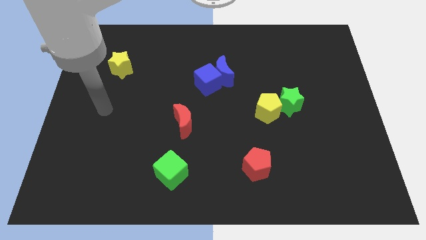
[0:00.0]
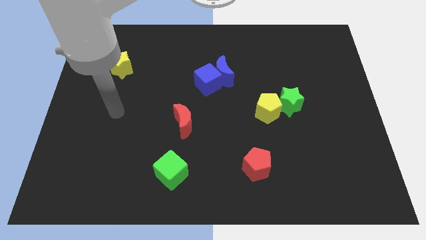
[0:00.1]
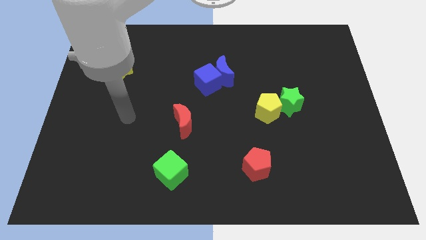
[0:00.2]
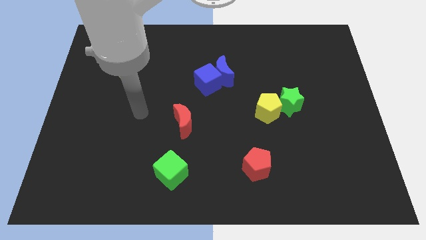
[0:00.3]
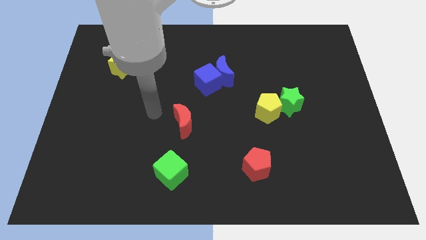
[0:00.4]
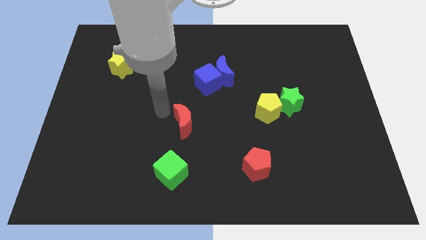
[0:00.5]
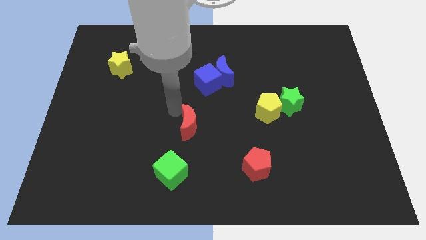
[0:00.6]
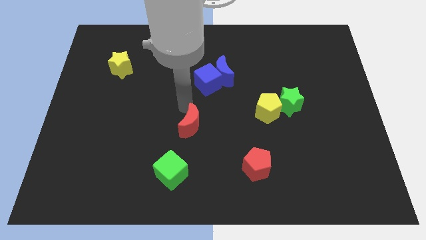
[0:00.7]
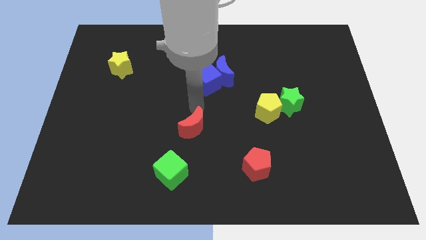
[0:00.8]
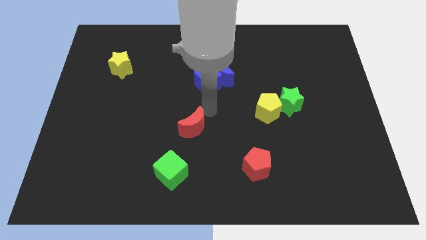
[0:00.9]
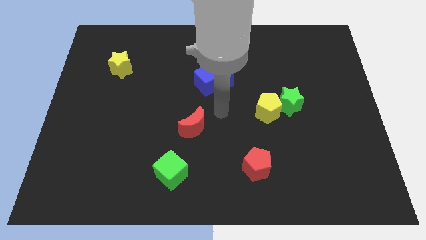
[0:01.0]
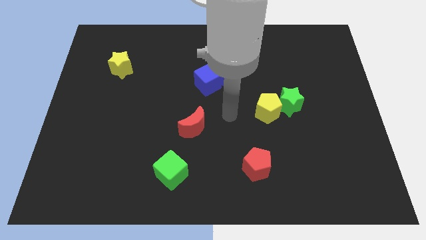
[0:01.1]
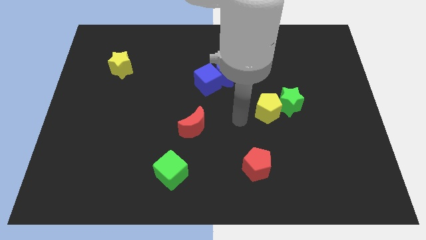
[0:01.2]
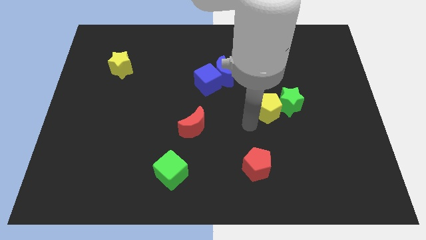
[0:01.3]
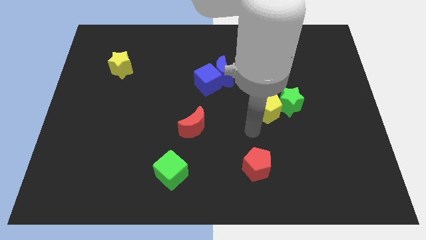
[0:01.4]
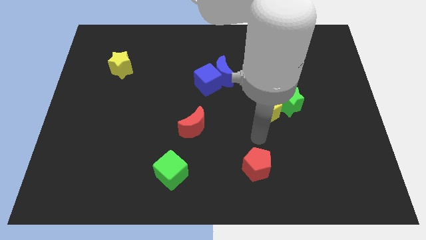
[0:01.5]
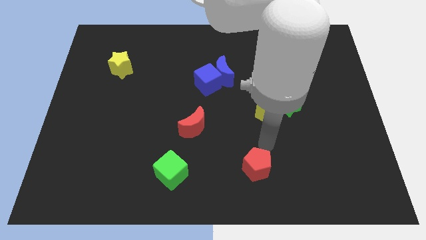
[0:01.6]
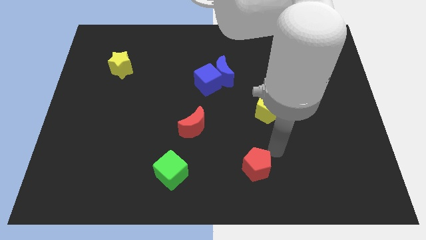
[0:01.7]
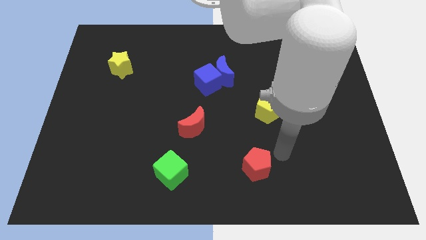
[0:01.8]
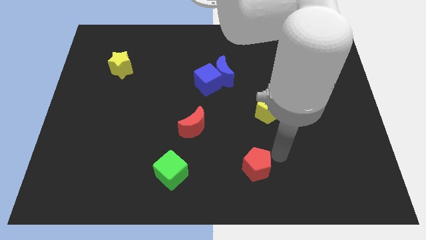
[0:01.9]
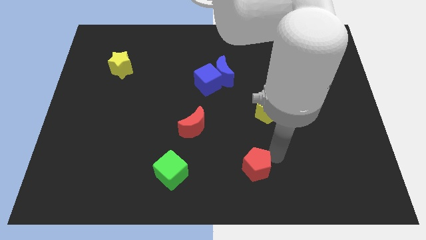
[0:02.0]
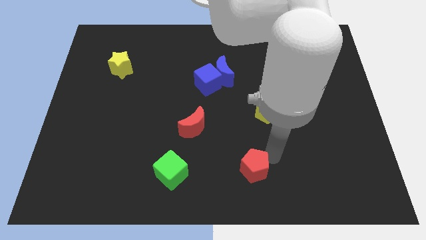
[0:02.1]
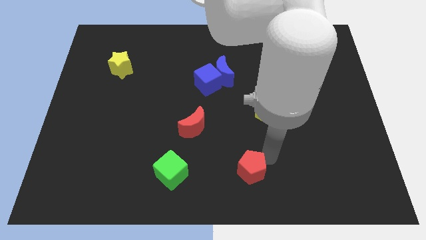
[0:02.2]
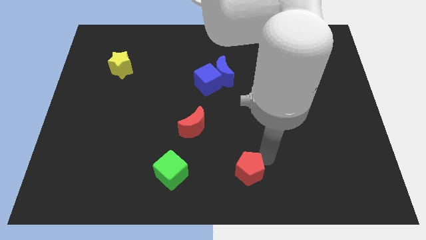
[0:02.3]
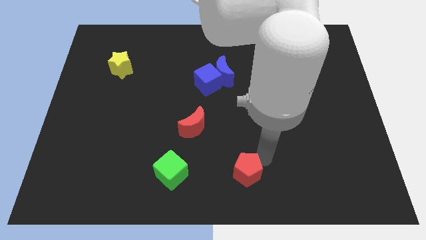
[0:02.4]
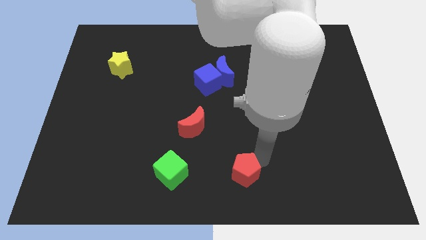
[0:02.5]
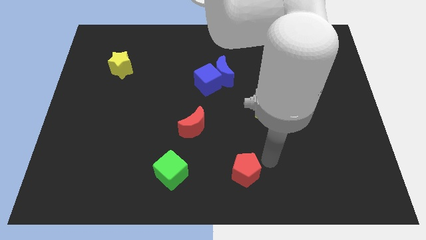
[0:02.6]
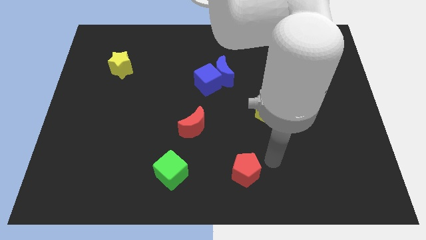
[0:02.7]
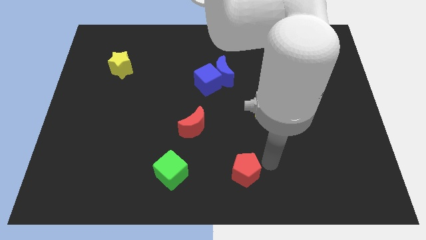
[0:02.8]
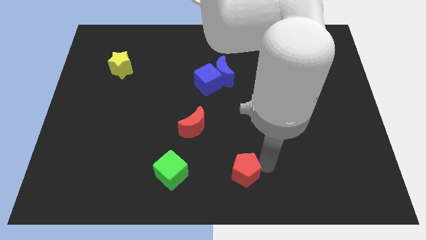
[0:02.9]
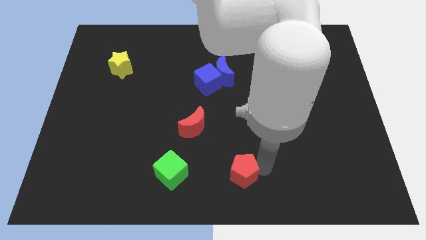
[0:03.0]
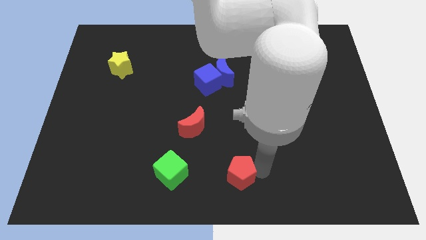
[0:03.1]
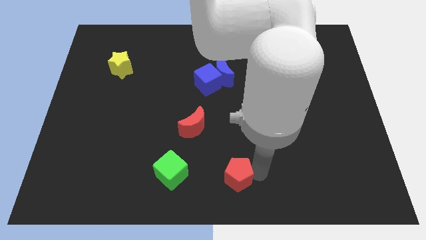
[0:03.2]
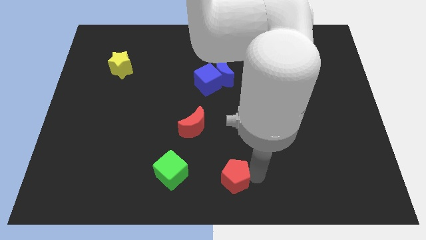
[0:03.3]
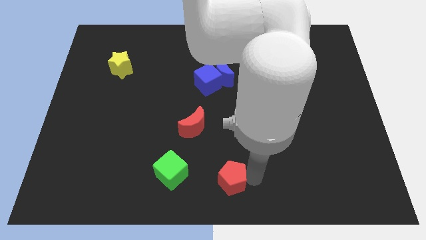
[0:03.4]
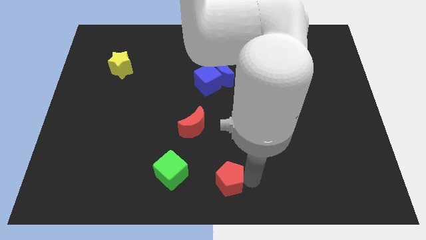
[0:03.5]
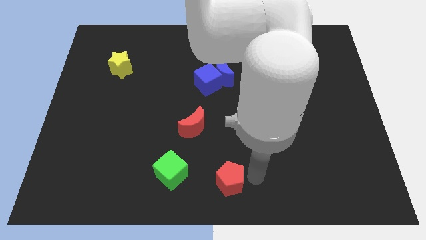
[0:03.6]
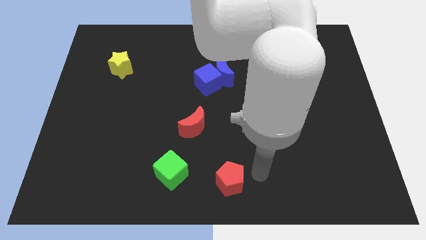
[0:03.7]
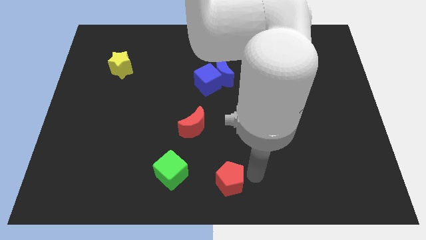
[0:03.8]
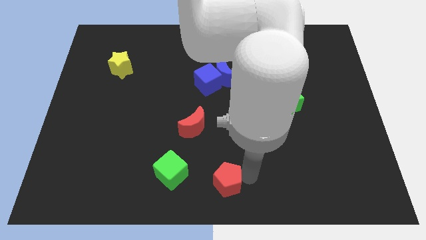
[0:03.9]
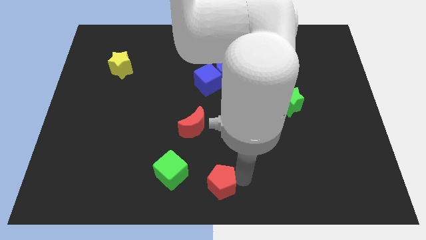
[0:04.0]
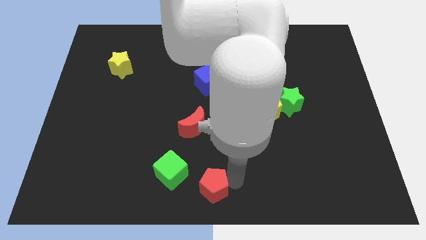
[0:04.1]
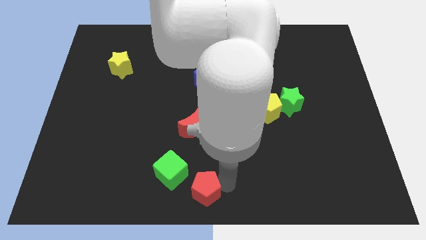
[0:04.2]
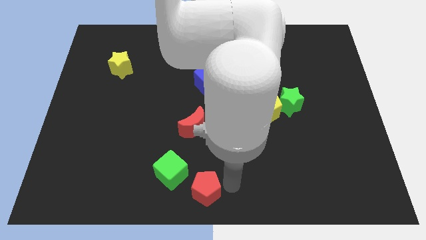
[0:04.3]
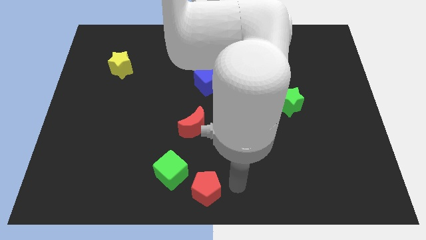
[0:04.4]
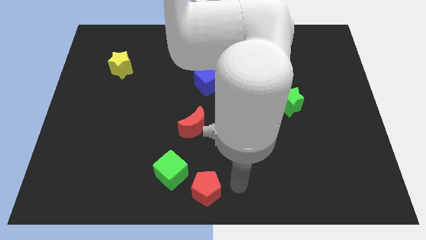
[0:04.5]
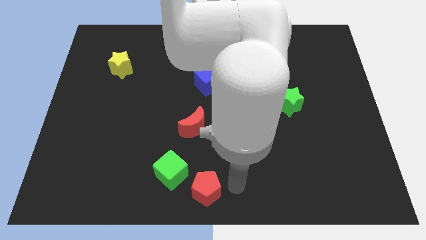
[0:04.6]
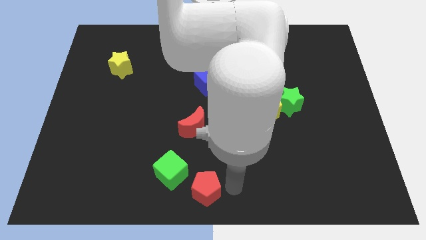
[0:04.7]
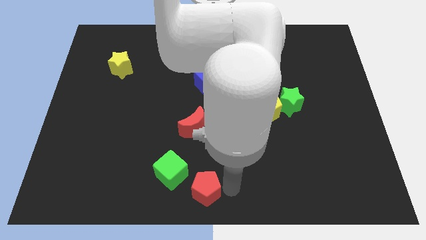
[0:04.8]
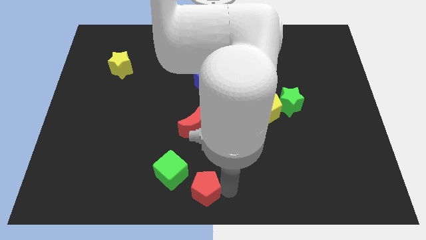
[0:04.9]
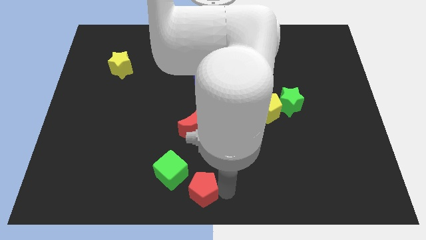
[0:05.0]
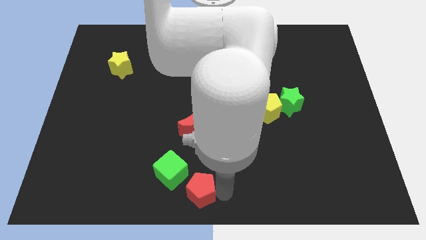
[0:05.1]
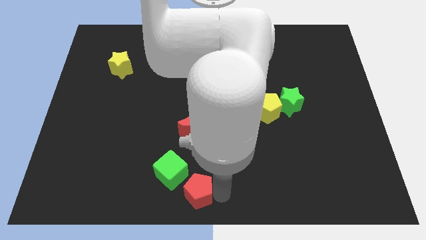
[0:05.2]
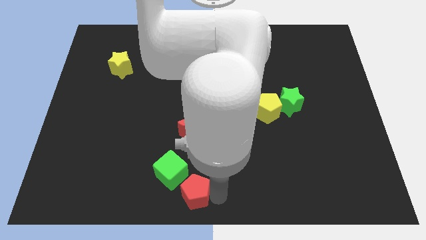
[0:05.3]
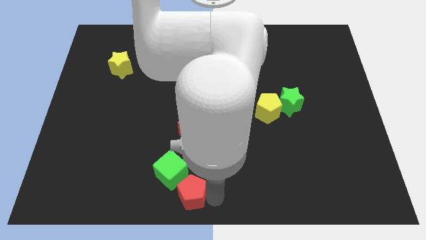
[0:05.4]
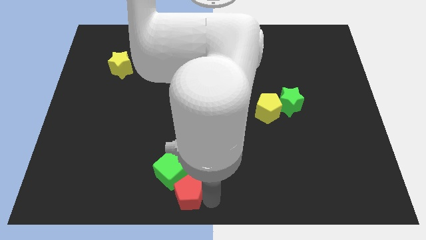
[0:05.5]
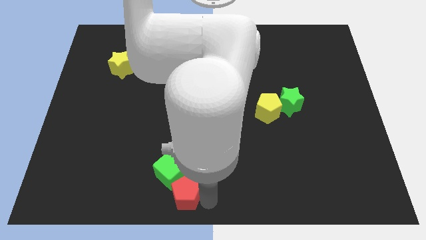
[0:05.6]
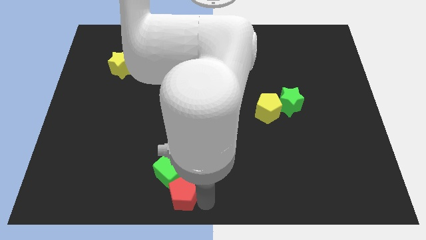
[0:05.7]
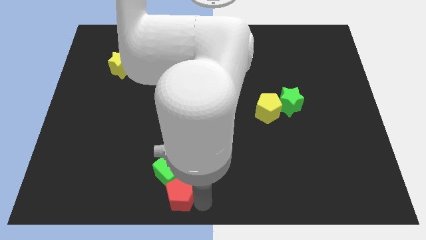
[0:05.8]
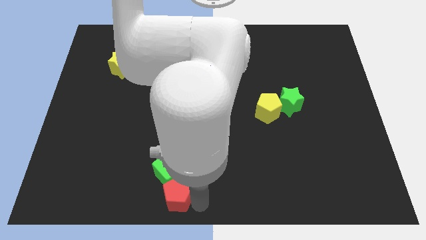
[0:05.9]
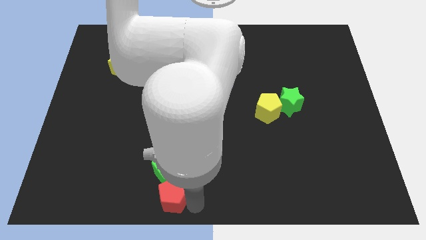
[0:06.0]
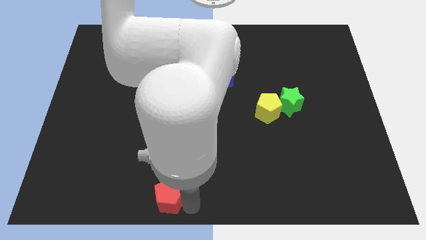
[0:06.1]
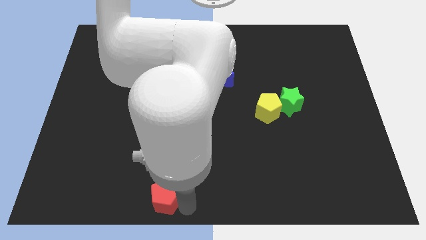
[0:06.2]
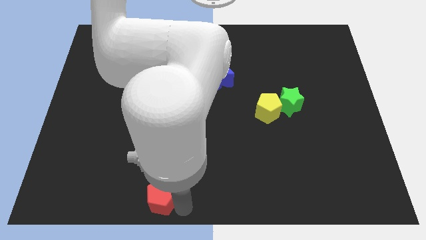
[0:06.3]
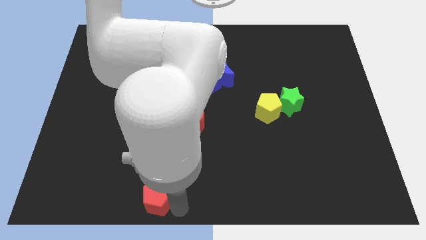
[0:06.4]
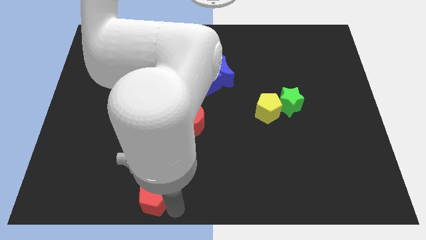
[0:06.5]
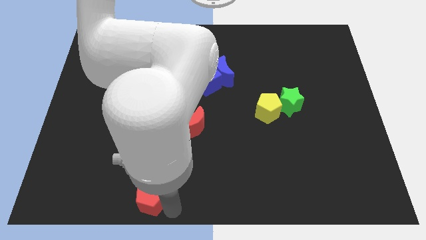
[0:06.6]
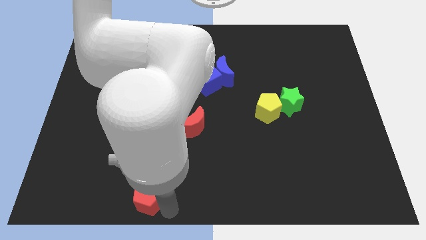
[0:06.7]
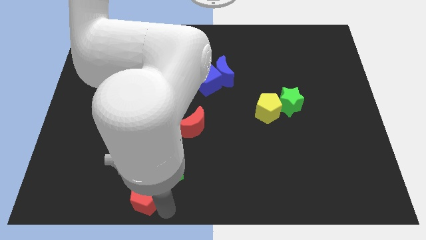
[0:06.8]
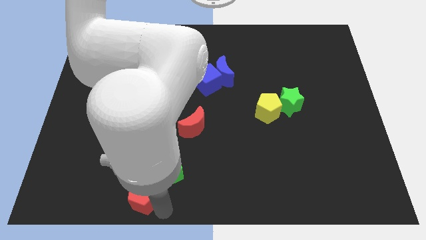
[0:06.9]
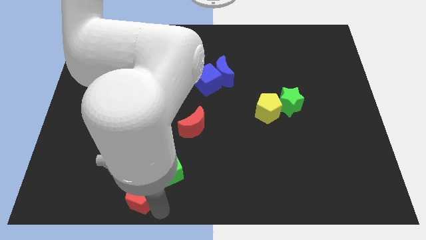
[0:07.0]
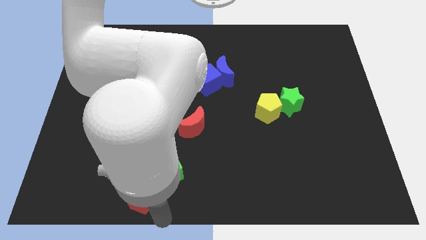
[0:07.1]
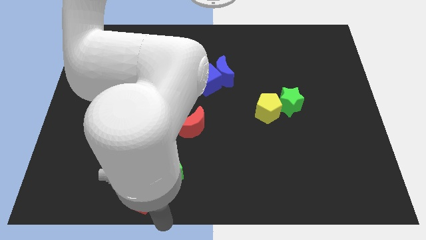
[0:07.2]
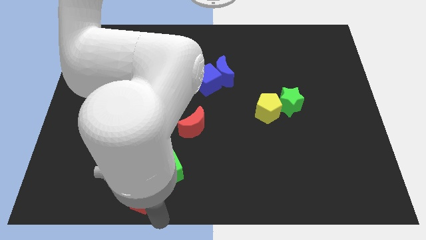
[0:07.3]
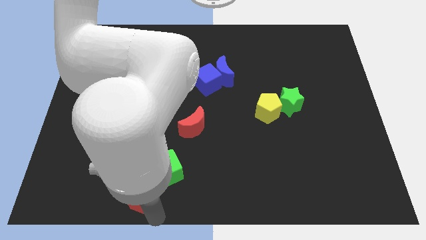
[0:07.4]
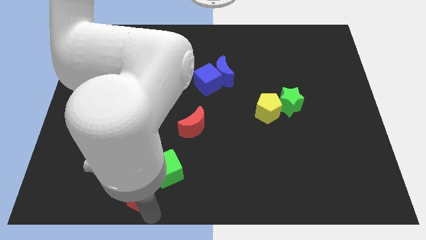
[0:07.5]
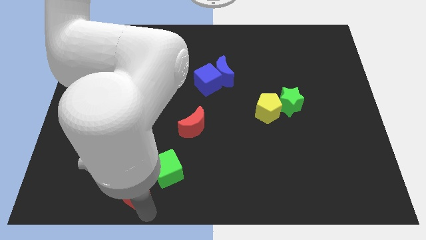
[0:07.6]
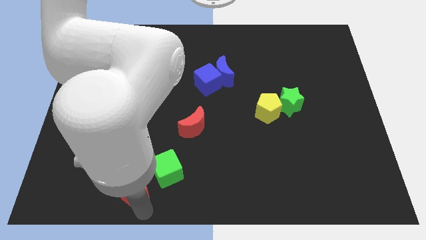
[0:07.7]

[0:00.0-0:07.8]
push the red pentagon to the left of the green cube
